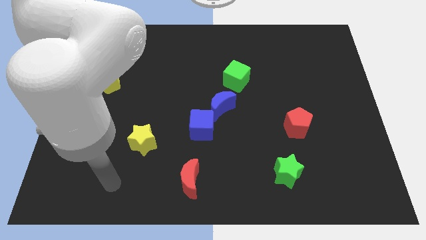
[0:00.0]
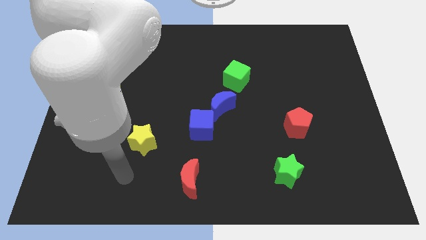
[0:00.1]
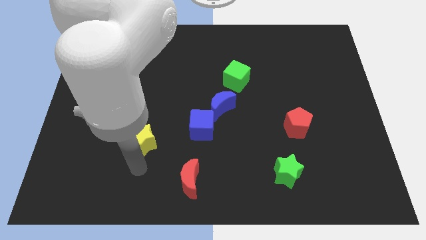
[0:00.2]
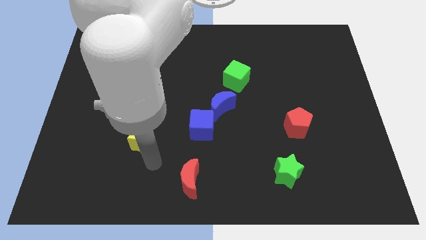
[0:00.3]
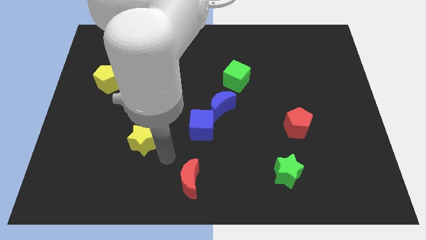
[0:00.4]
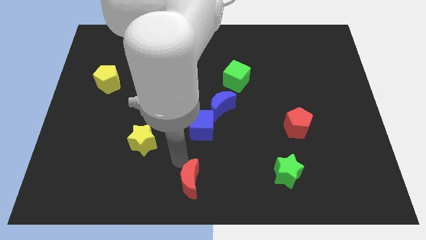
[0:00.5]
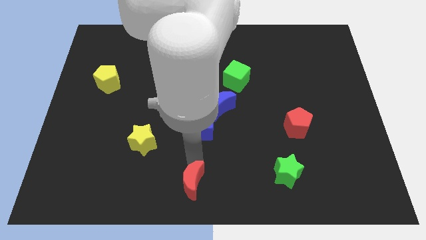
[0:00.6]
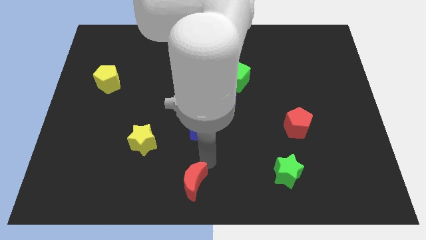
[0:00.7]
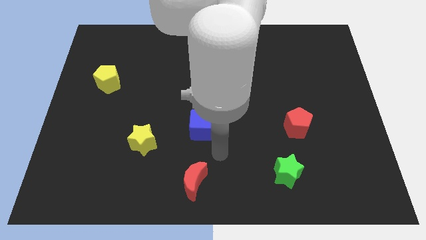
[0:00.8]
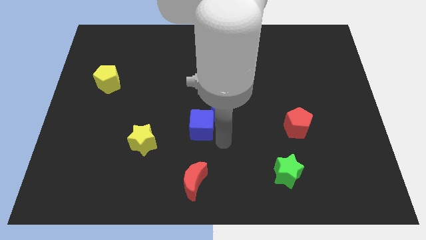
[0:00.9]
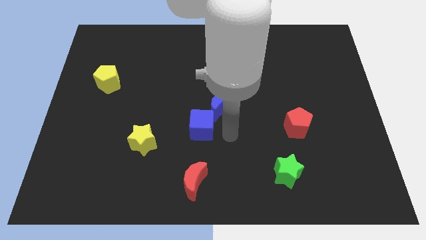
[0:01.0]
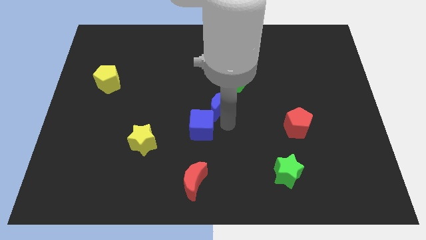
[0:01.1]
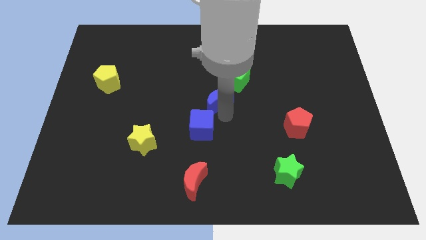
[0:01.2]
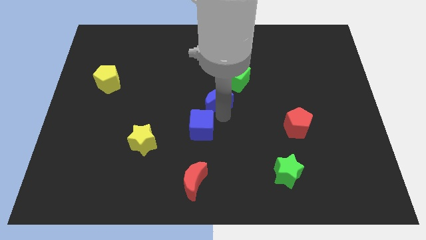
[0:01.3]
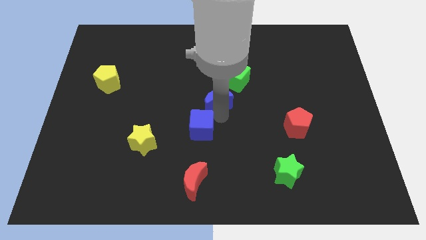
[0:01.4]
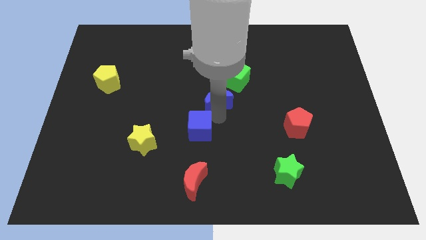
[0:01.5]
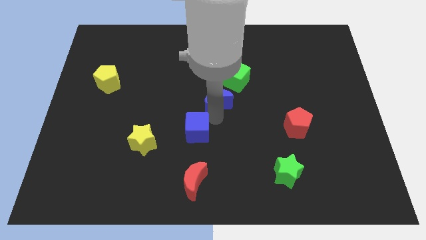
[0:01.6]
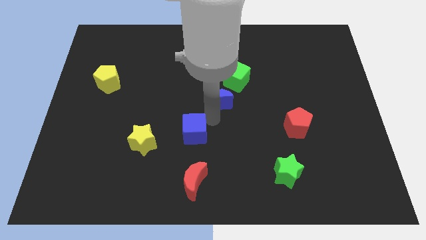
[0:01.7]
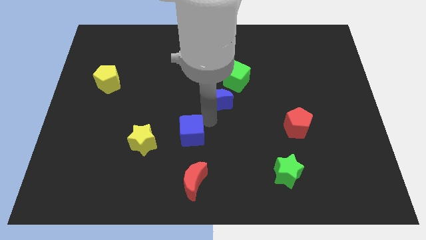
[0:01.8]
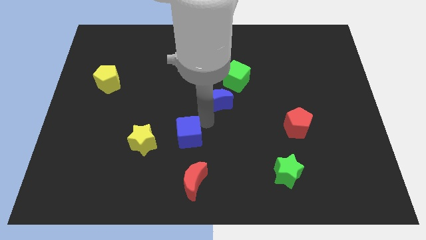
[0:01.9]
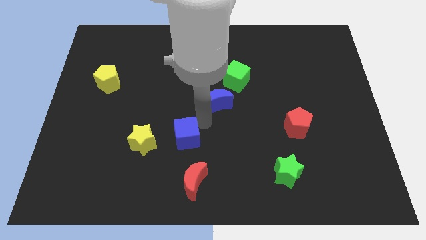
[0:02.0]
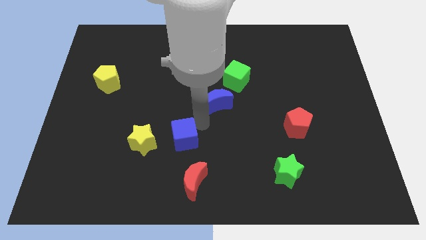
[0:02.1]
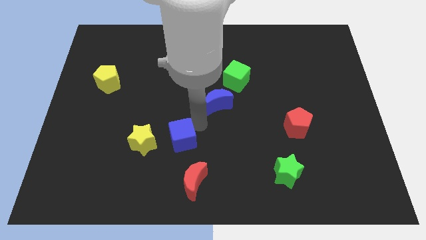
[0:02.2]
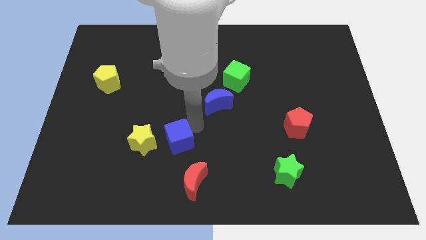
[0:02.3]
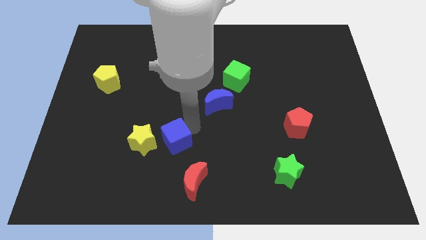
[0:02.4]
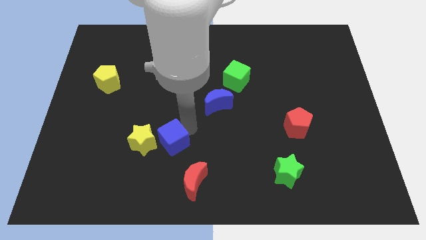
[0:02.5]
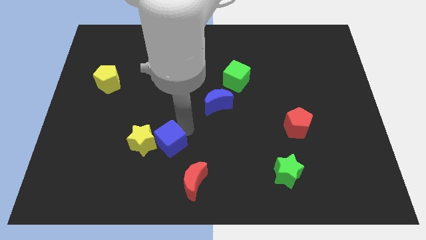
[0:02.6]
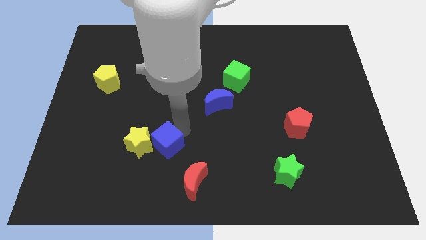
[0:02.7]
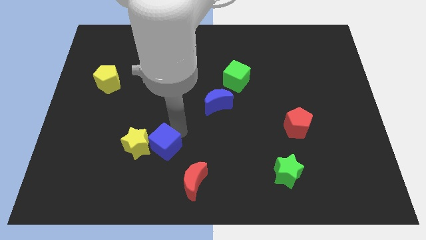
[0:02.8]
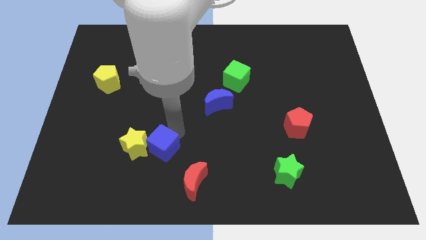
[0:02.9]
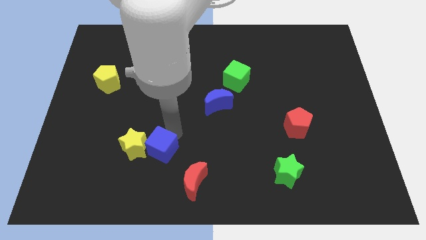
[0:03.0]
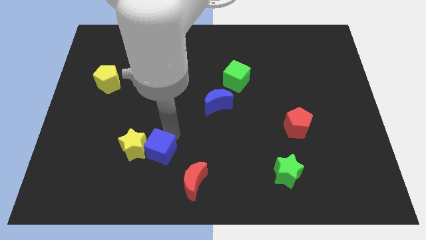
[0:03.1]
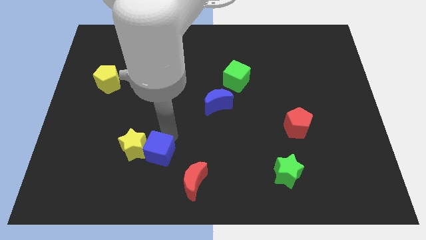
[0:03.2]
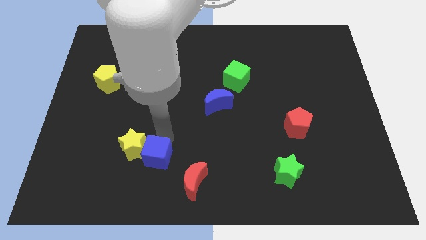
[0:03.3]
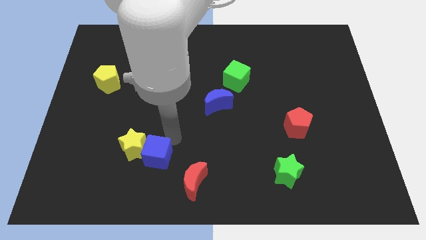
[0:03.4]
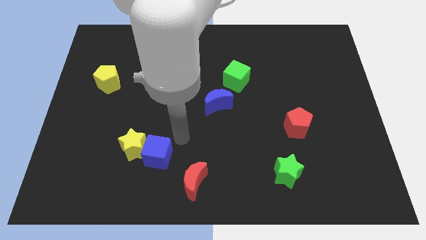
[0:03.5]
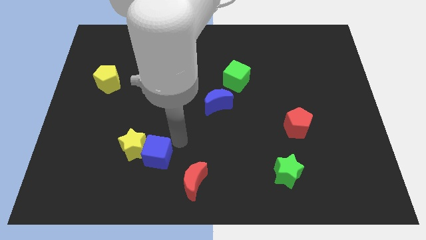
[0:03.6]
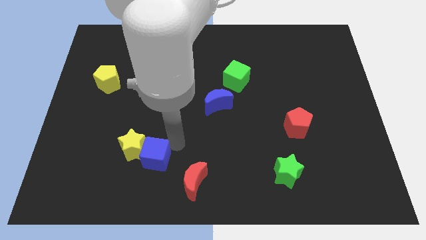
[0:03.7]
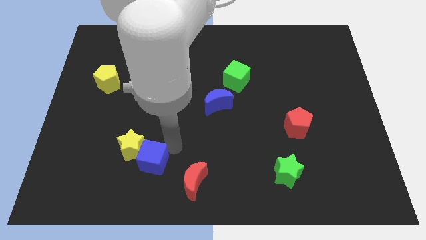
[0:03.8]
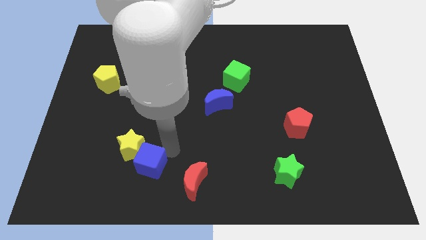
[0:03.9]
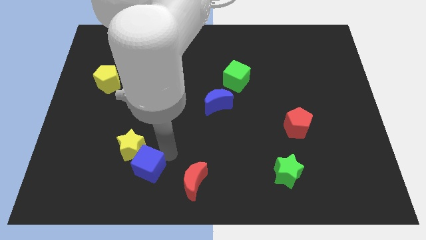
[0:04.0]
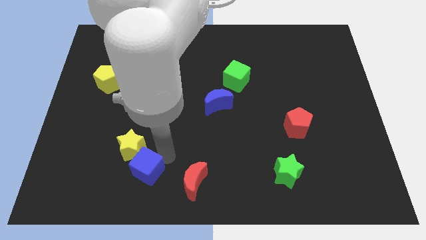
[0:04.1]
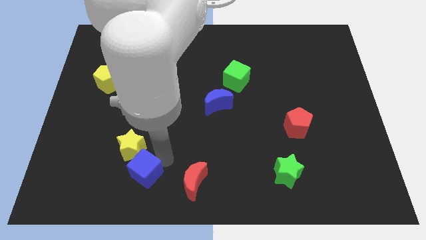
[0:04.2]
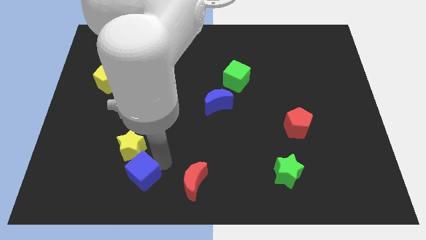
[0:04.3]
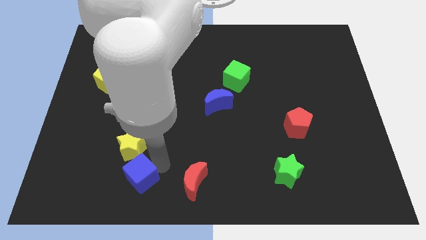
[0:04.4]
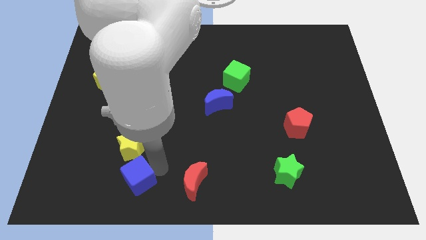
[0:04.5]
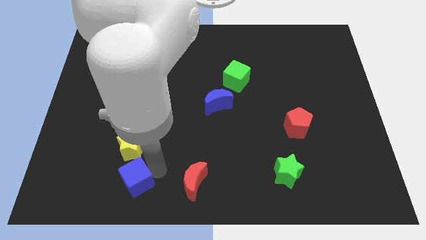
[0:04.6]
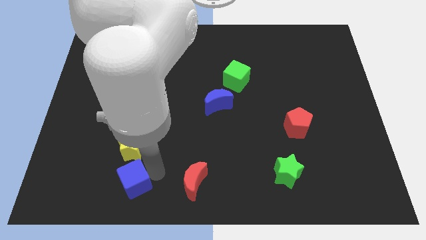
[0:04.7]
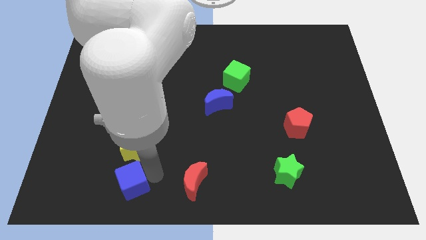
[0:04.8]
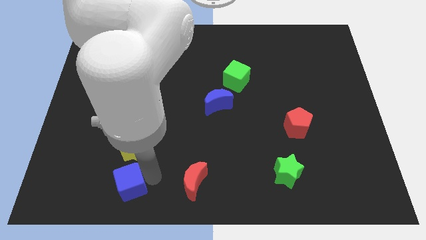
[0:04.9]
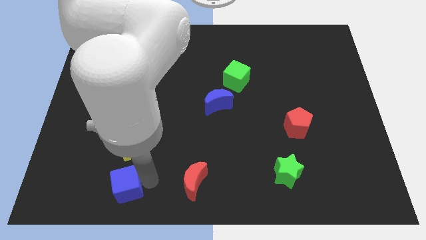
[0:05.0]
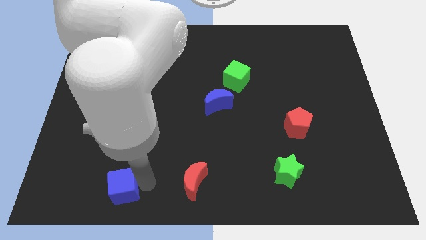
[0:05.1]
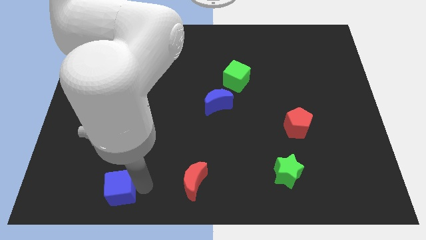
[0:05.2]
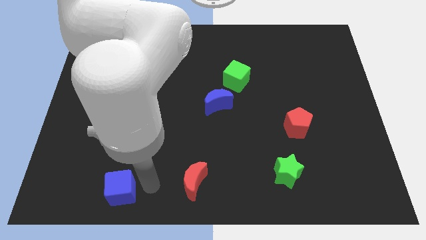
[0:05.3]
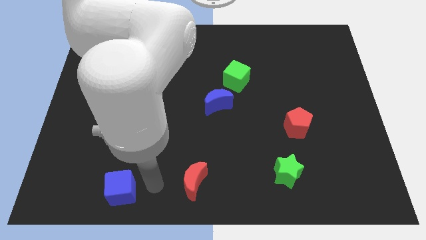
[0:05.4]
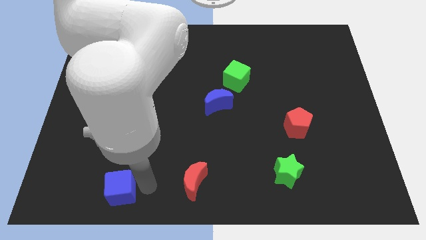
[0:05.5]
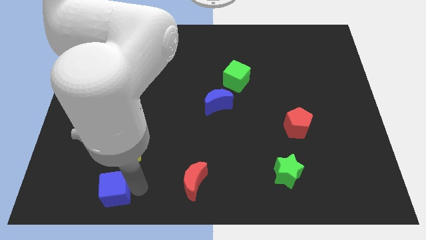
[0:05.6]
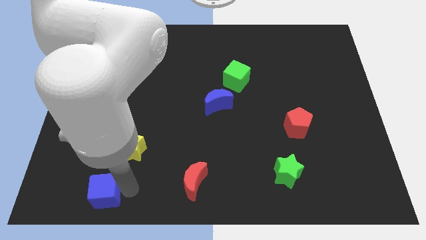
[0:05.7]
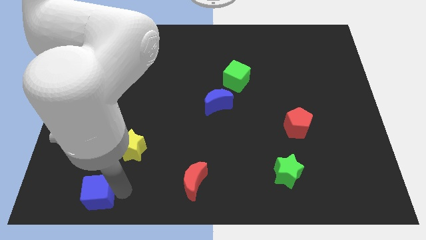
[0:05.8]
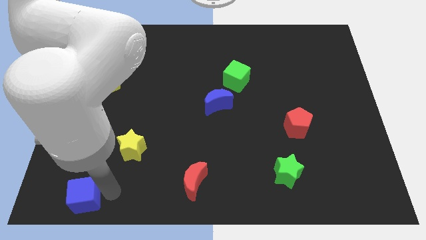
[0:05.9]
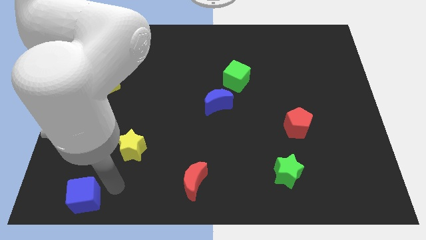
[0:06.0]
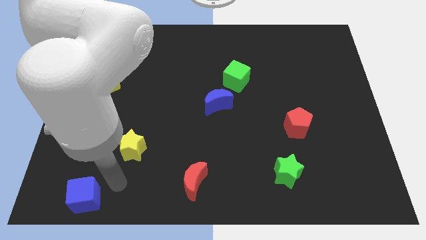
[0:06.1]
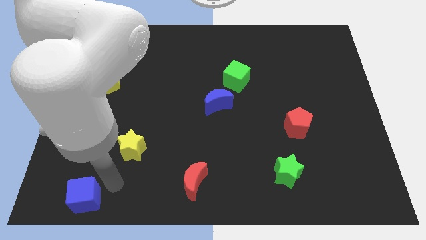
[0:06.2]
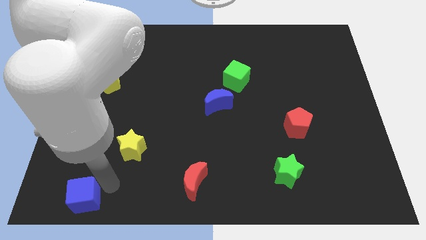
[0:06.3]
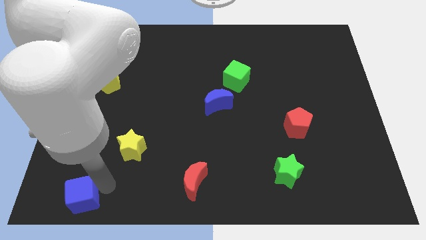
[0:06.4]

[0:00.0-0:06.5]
move the blue cube to the bottom left
